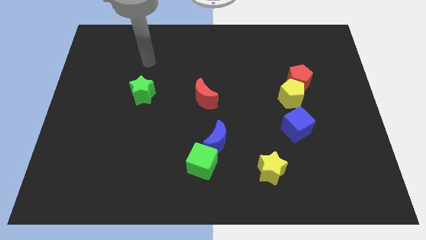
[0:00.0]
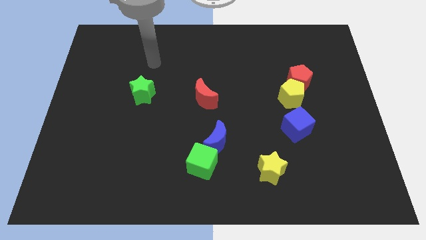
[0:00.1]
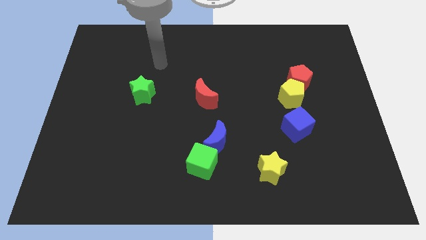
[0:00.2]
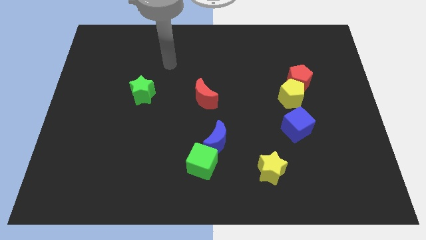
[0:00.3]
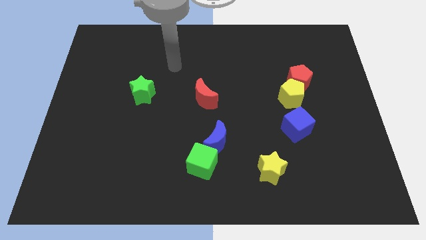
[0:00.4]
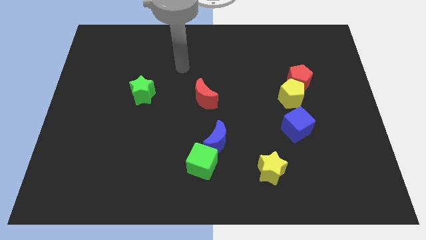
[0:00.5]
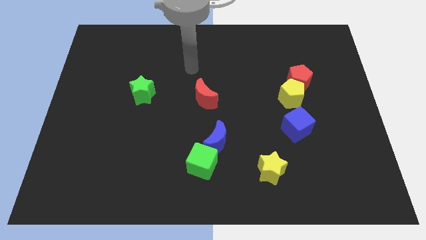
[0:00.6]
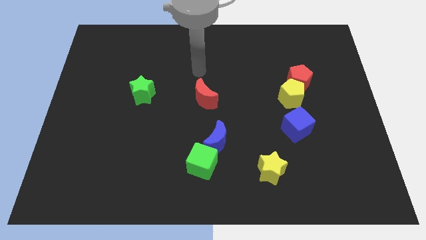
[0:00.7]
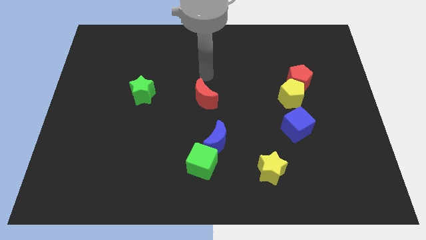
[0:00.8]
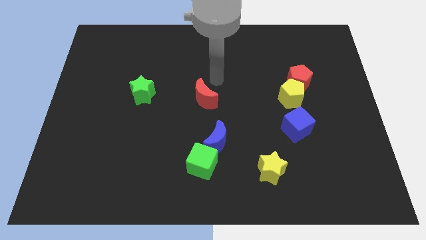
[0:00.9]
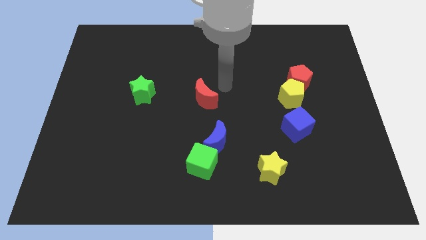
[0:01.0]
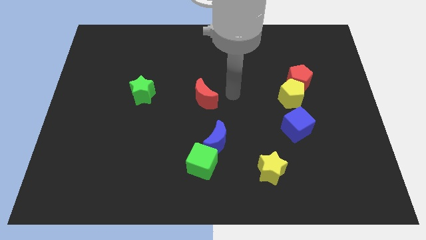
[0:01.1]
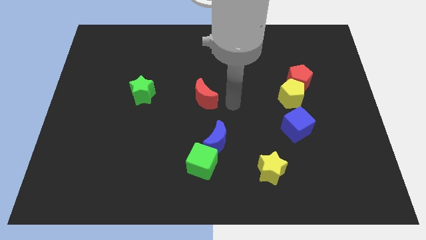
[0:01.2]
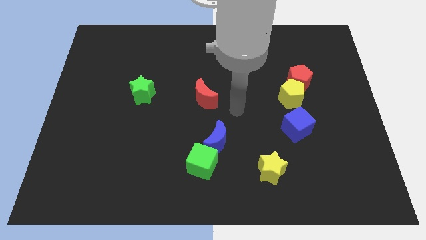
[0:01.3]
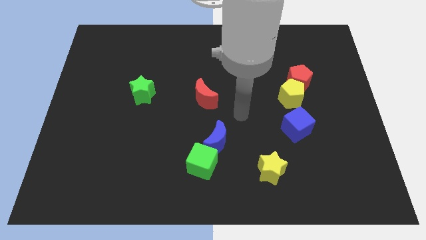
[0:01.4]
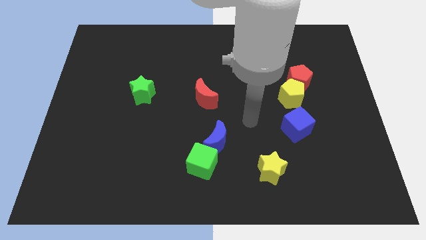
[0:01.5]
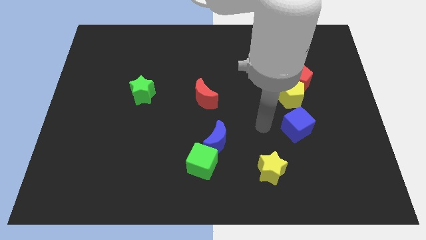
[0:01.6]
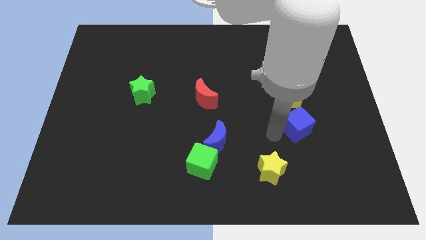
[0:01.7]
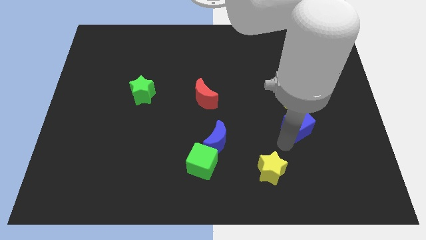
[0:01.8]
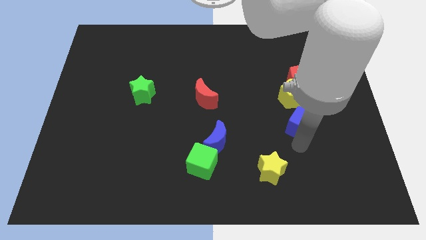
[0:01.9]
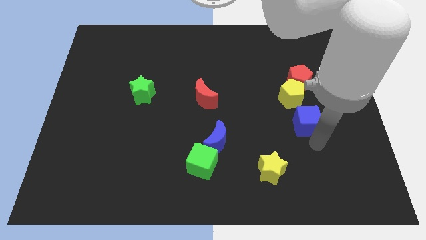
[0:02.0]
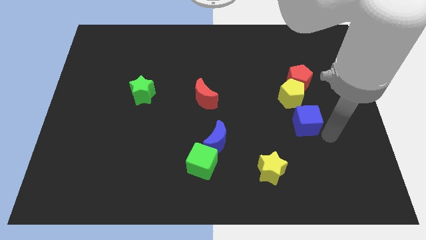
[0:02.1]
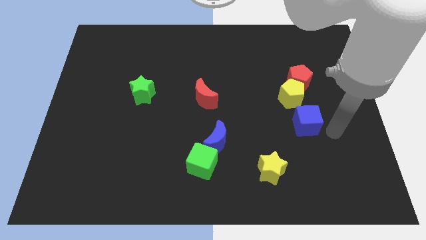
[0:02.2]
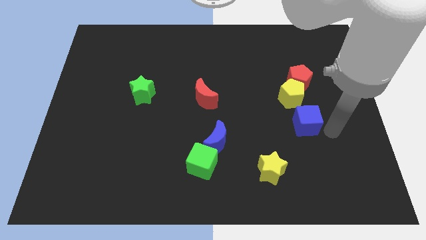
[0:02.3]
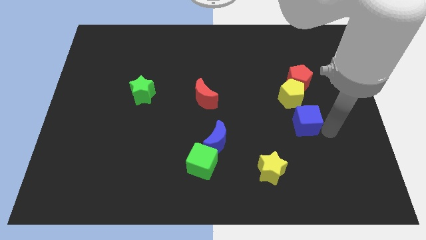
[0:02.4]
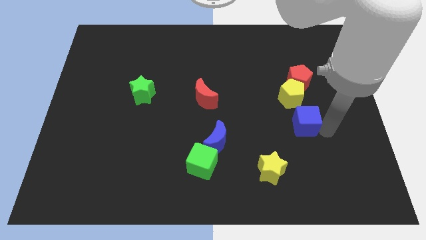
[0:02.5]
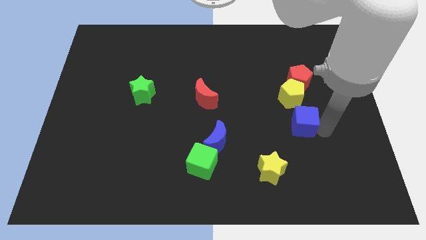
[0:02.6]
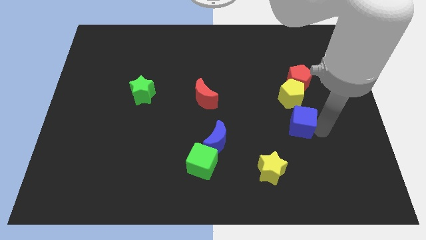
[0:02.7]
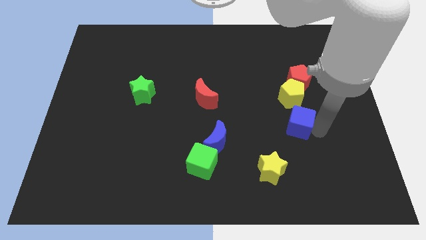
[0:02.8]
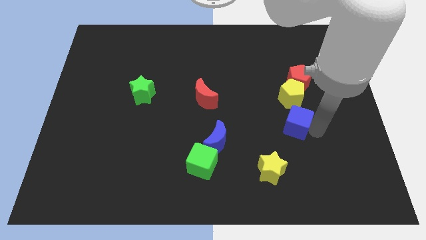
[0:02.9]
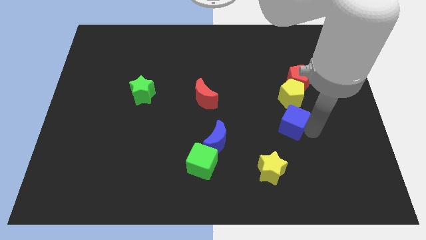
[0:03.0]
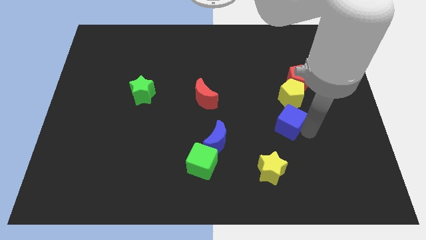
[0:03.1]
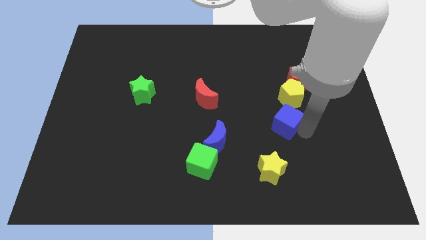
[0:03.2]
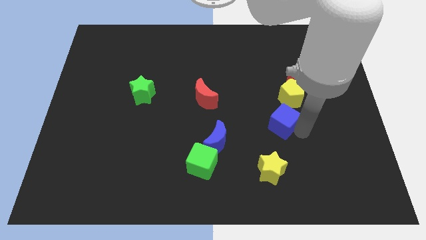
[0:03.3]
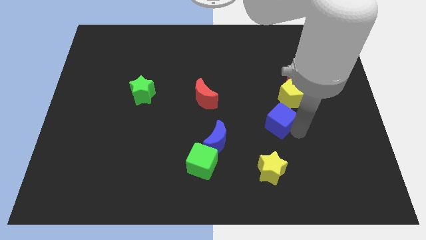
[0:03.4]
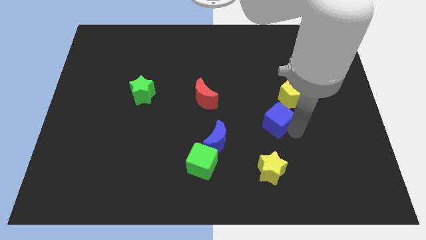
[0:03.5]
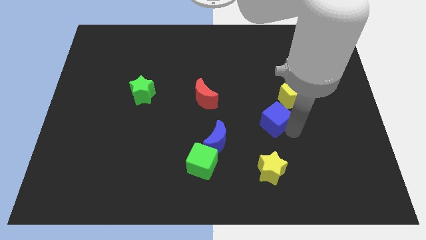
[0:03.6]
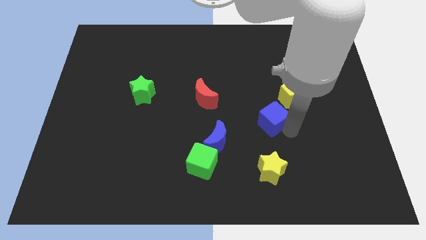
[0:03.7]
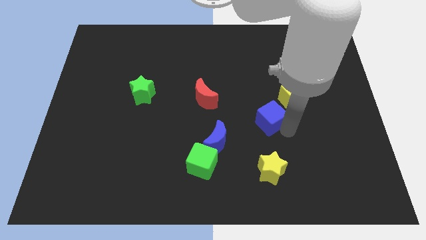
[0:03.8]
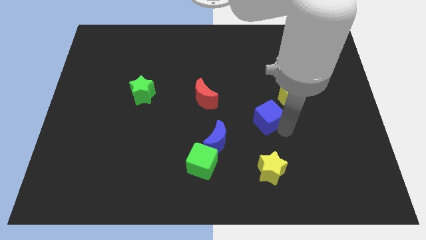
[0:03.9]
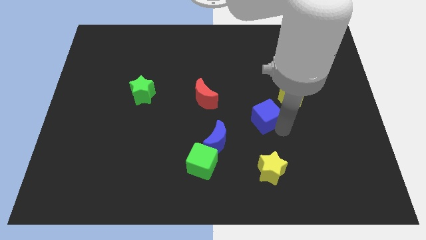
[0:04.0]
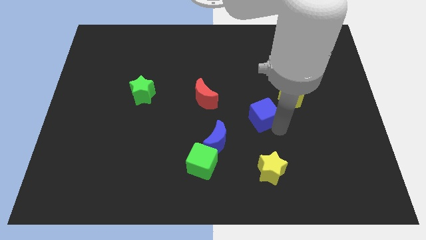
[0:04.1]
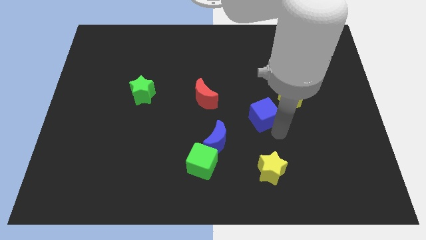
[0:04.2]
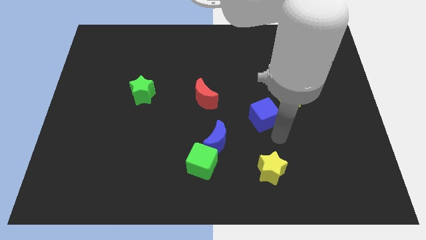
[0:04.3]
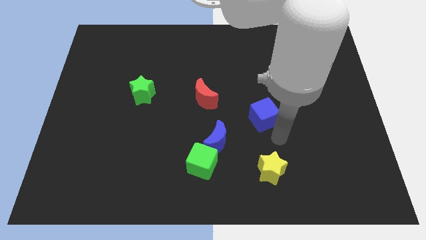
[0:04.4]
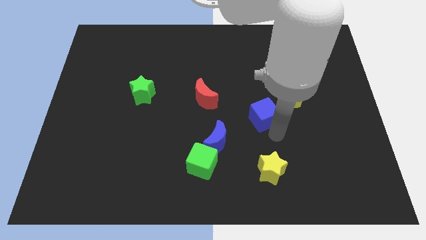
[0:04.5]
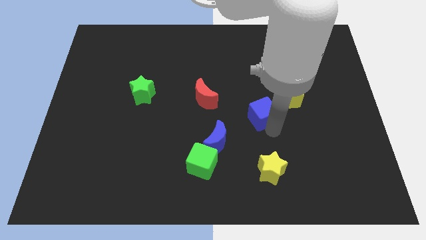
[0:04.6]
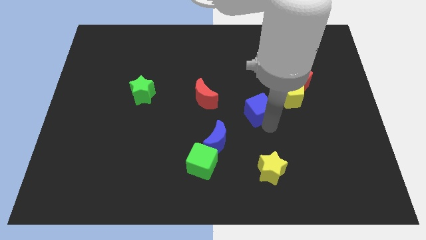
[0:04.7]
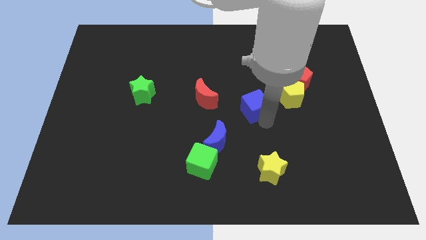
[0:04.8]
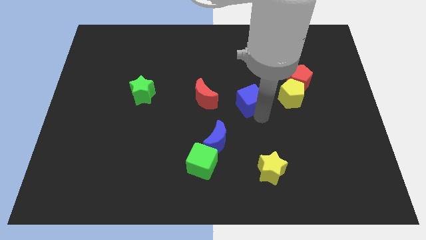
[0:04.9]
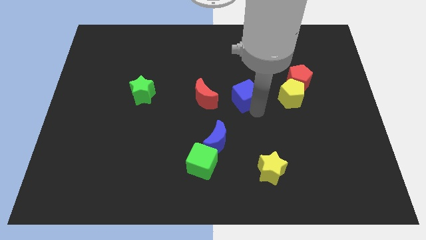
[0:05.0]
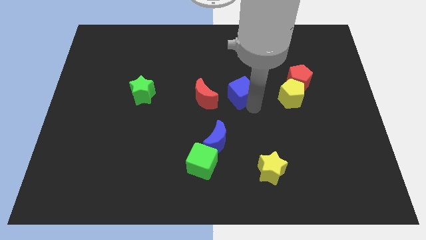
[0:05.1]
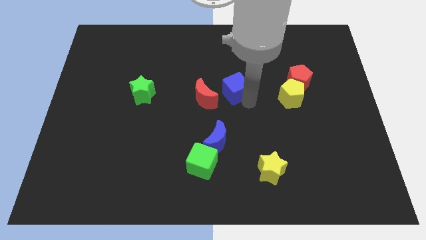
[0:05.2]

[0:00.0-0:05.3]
put the blue cube diagonally up and to the right of the red moon

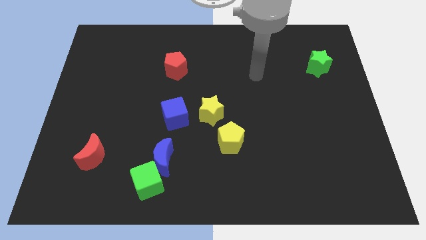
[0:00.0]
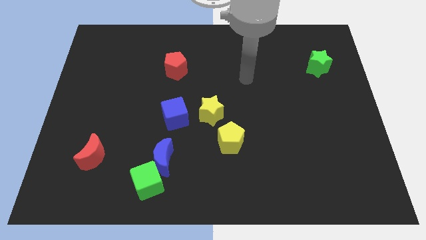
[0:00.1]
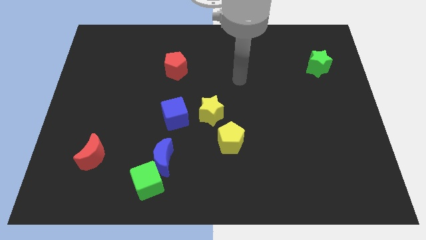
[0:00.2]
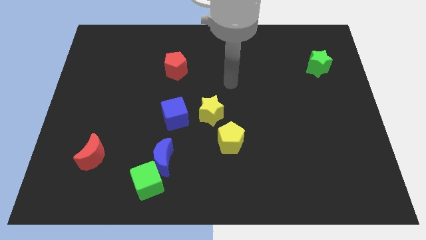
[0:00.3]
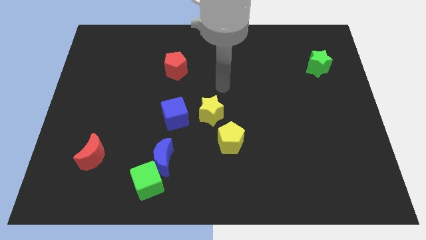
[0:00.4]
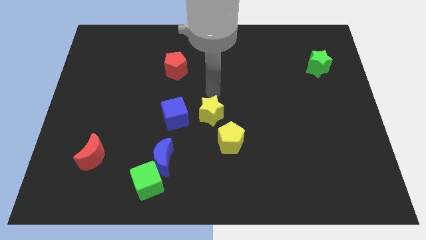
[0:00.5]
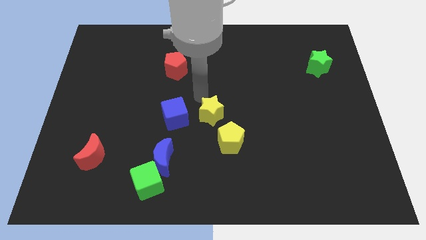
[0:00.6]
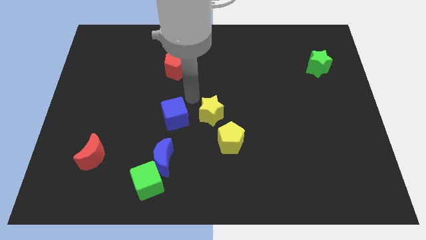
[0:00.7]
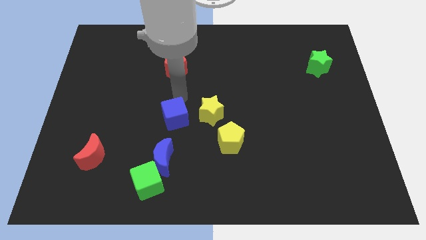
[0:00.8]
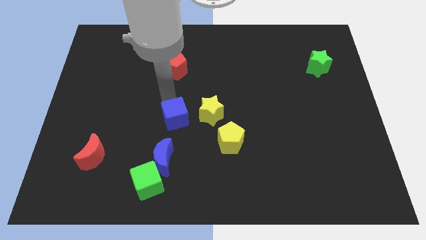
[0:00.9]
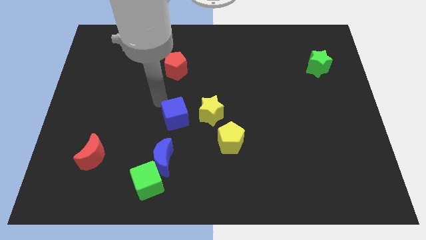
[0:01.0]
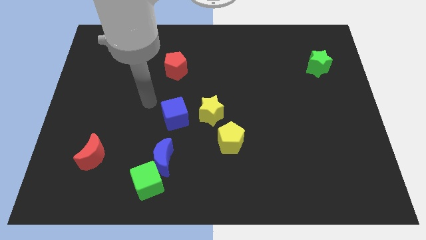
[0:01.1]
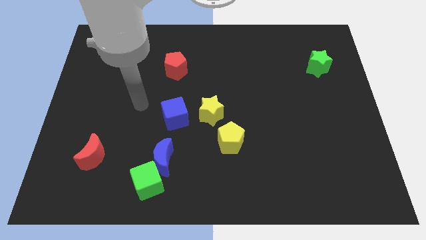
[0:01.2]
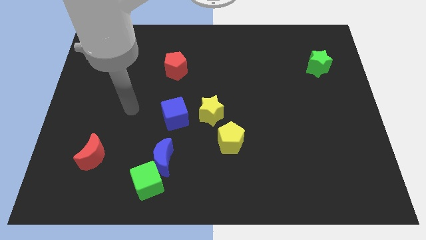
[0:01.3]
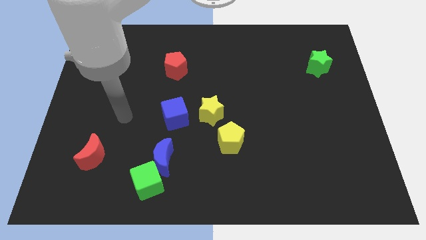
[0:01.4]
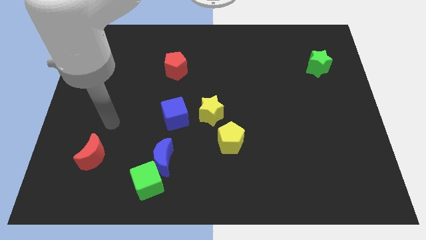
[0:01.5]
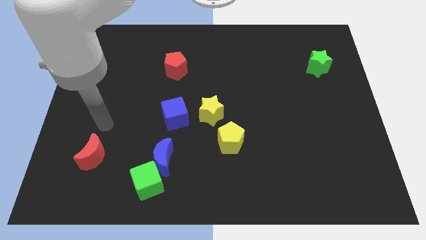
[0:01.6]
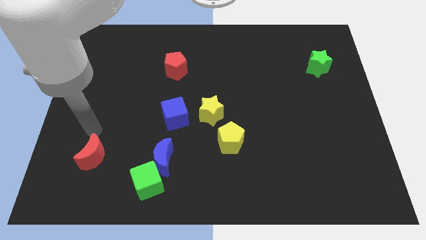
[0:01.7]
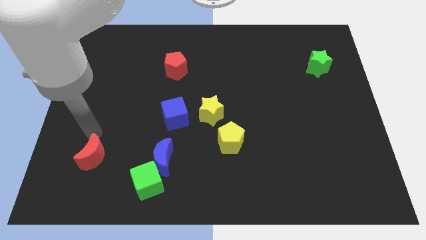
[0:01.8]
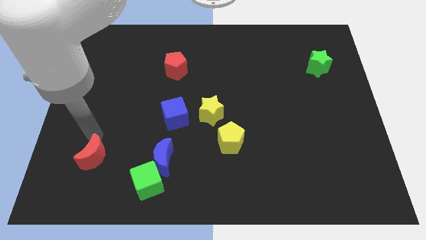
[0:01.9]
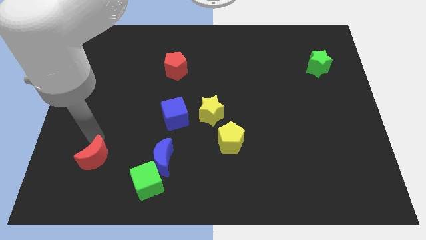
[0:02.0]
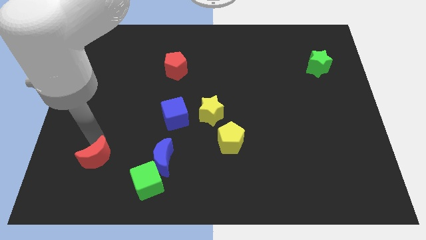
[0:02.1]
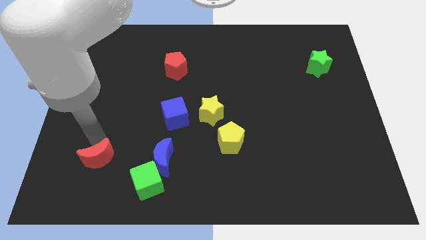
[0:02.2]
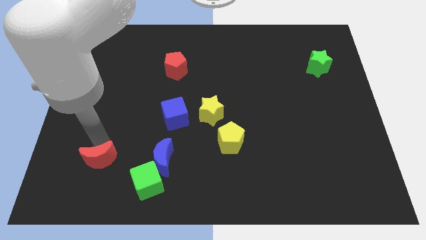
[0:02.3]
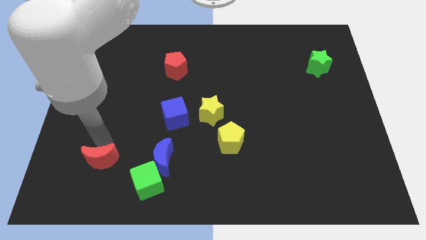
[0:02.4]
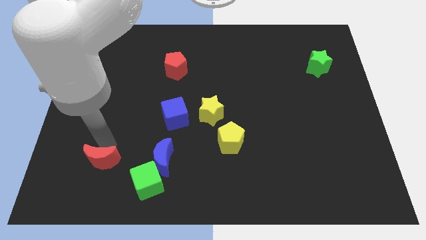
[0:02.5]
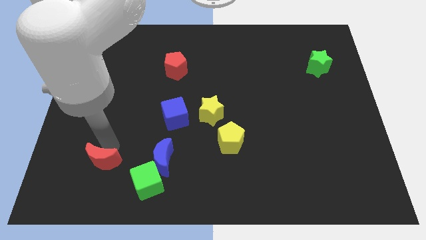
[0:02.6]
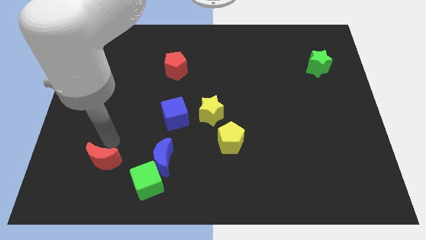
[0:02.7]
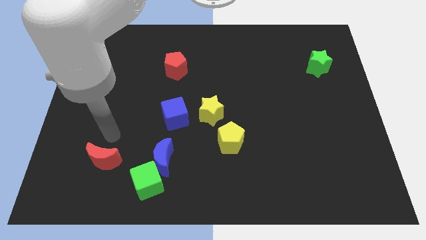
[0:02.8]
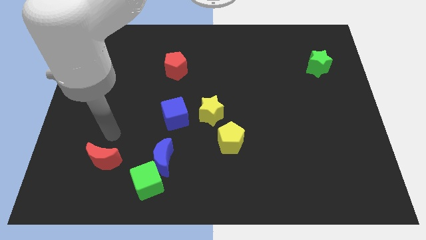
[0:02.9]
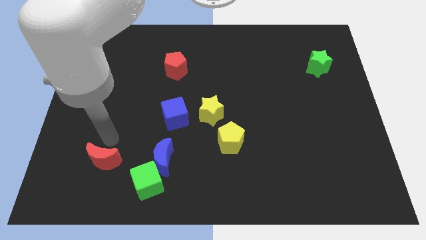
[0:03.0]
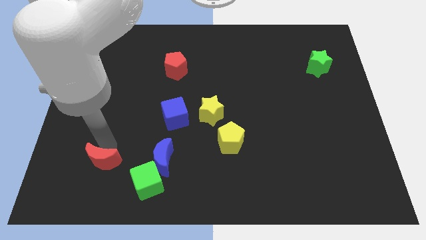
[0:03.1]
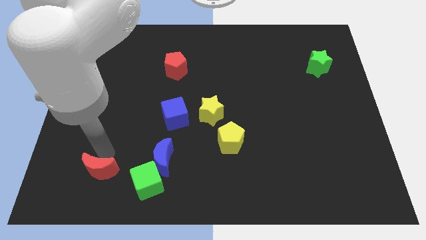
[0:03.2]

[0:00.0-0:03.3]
push the red moon left of the green cube
